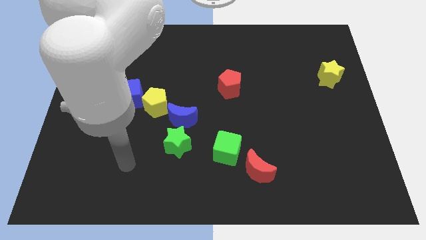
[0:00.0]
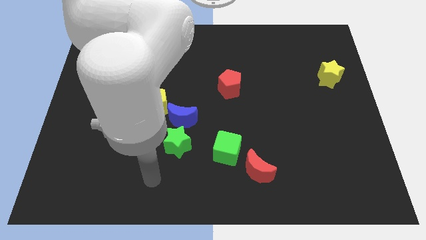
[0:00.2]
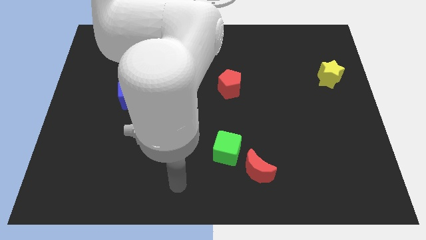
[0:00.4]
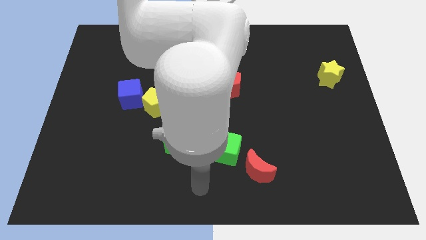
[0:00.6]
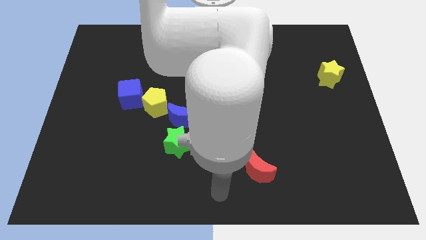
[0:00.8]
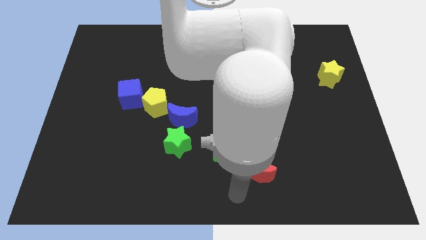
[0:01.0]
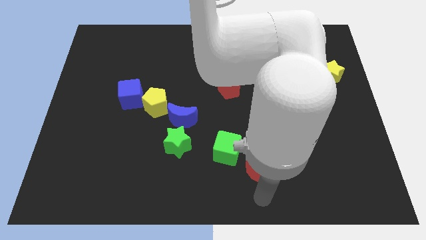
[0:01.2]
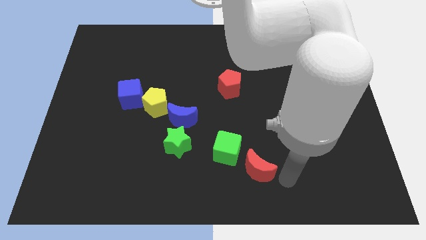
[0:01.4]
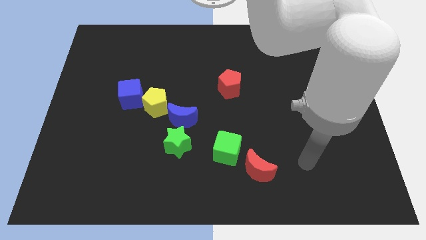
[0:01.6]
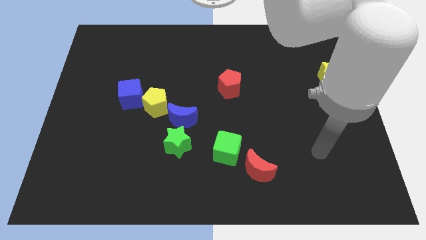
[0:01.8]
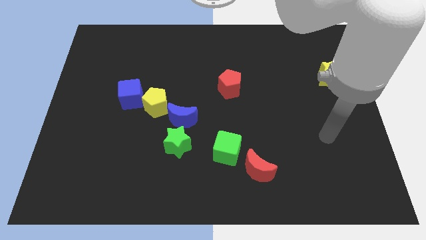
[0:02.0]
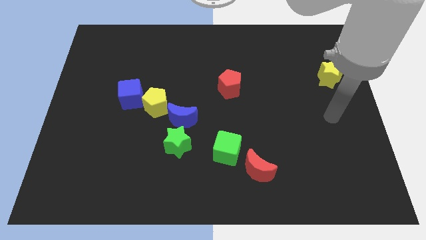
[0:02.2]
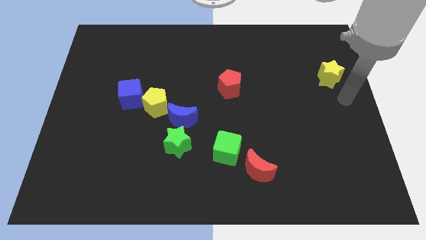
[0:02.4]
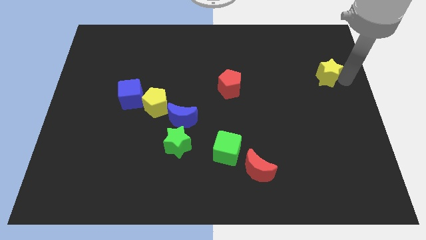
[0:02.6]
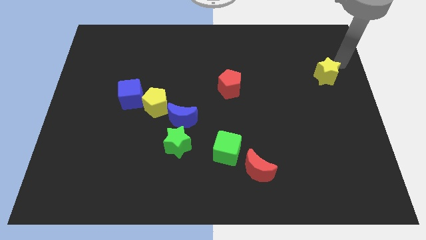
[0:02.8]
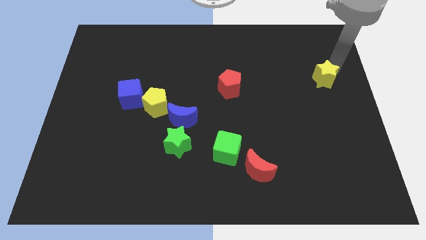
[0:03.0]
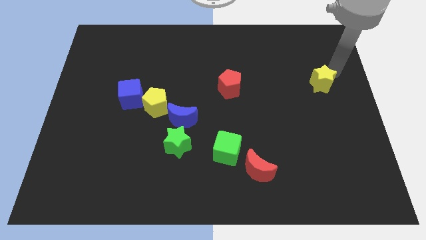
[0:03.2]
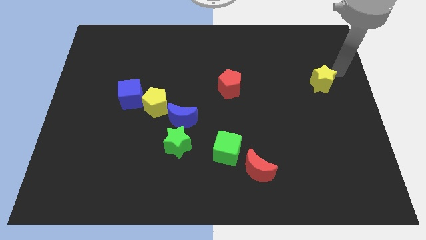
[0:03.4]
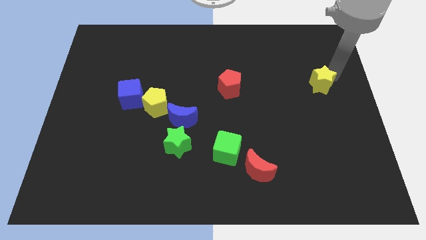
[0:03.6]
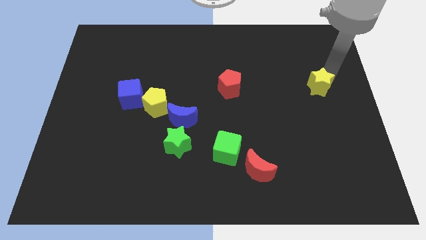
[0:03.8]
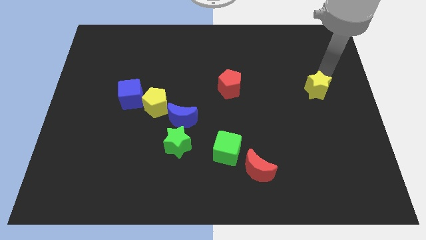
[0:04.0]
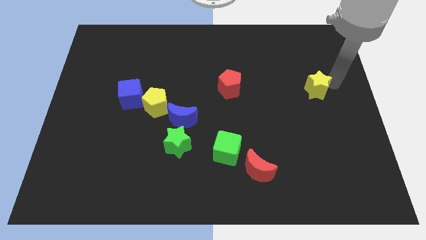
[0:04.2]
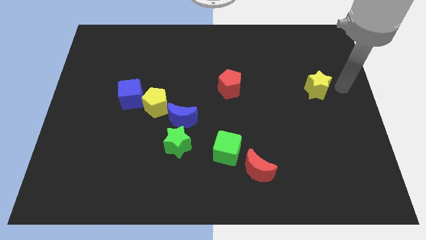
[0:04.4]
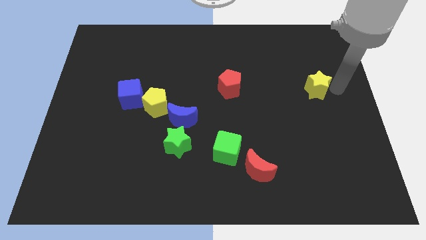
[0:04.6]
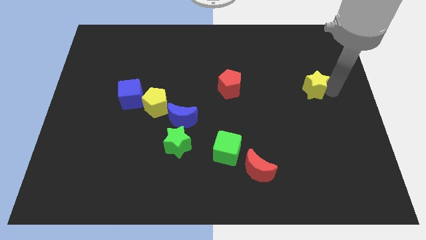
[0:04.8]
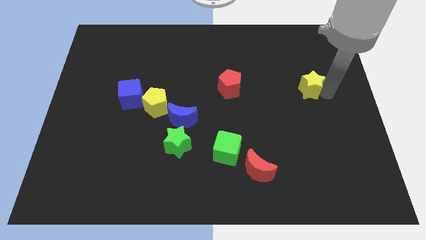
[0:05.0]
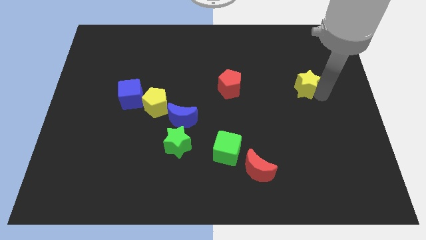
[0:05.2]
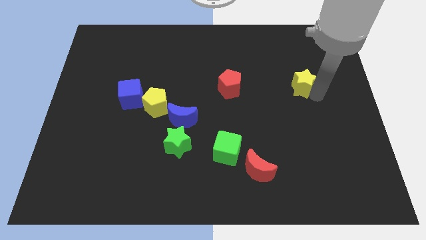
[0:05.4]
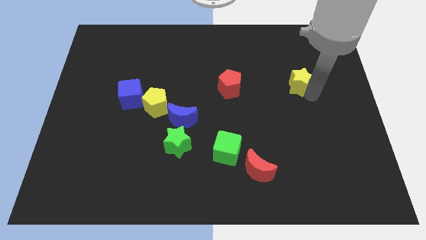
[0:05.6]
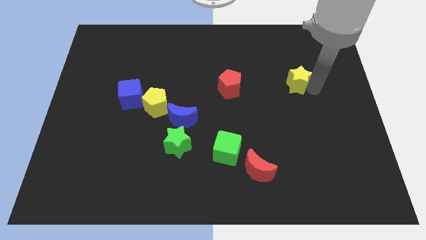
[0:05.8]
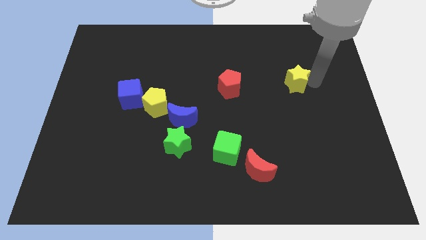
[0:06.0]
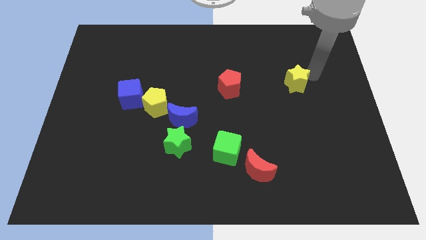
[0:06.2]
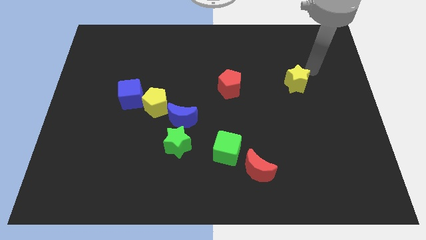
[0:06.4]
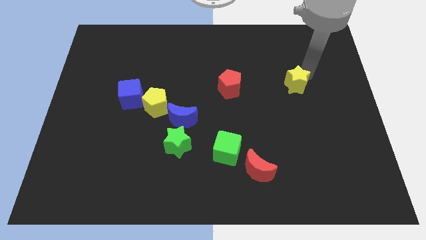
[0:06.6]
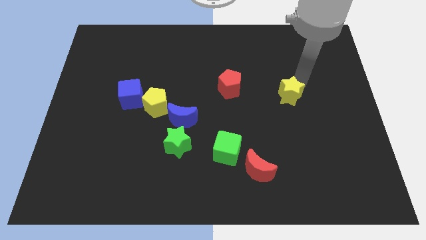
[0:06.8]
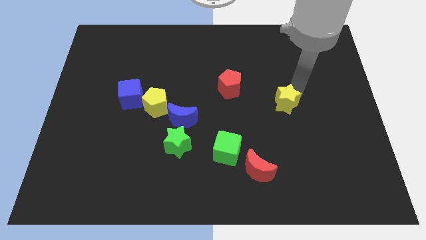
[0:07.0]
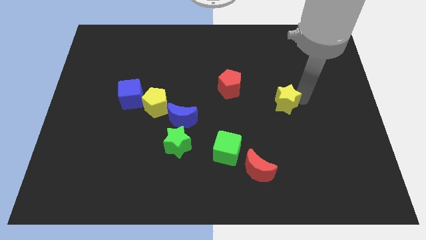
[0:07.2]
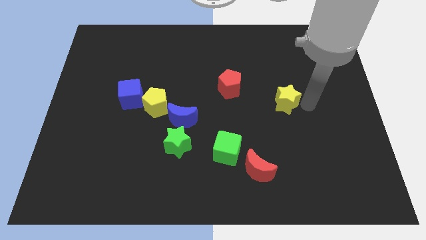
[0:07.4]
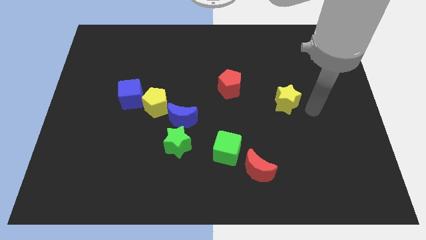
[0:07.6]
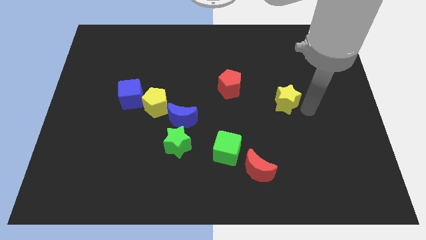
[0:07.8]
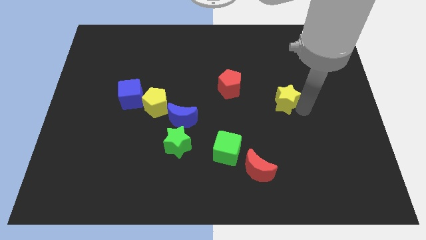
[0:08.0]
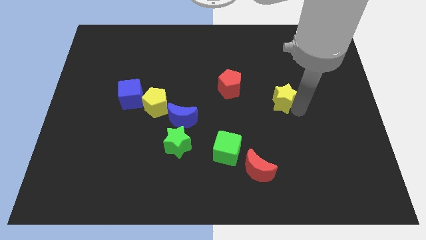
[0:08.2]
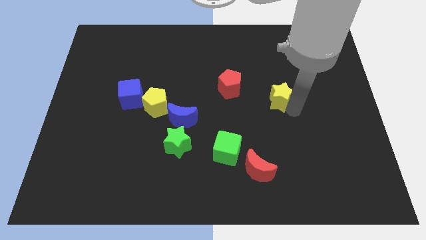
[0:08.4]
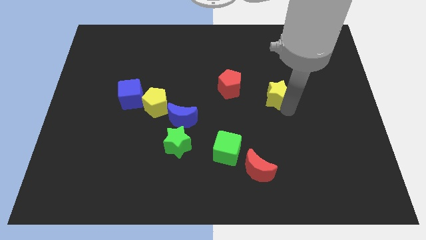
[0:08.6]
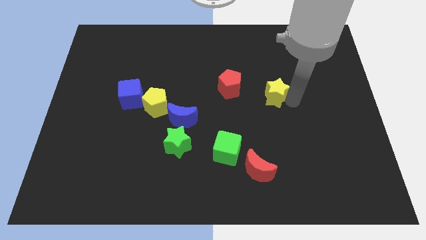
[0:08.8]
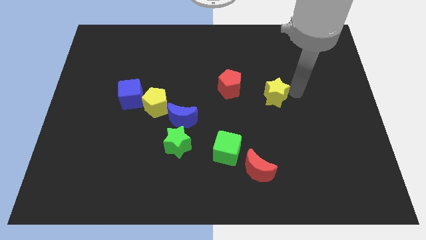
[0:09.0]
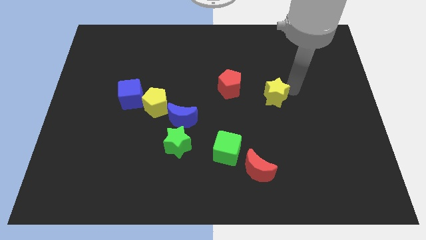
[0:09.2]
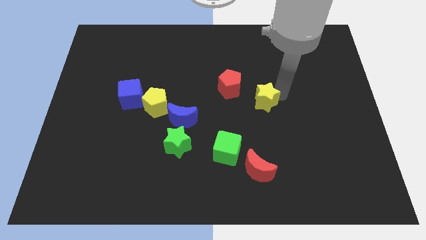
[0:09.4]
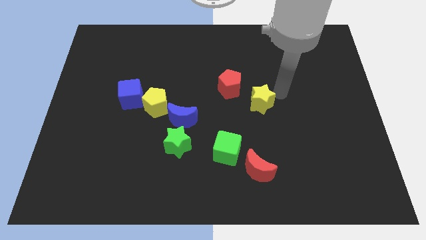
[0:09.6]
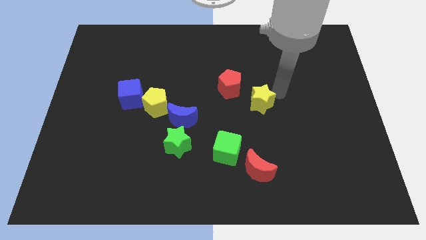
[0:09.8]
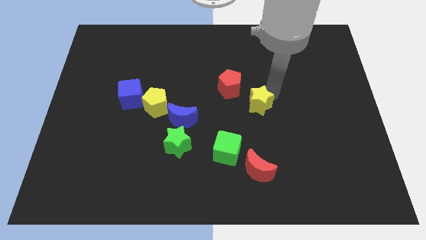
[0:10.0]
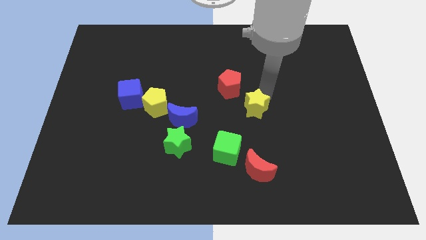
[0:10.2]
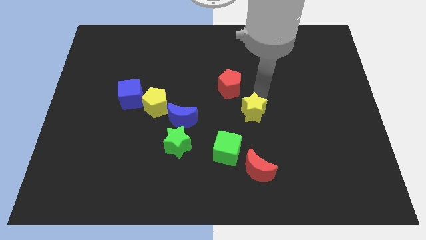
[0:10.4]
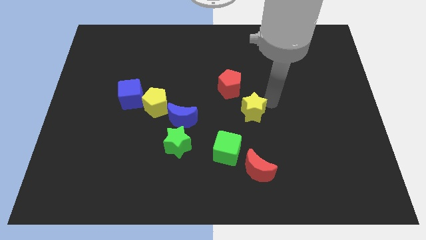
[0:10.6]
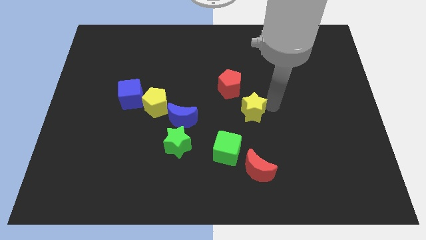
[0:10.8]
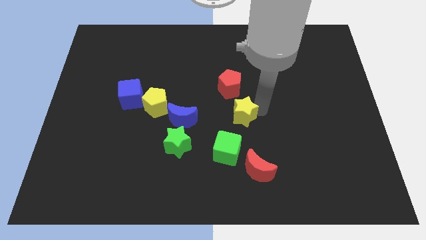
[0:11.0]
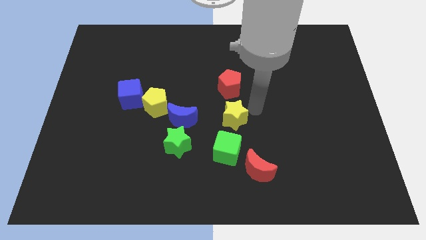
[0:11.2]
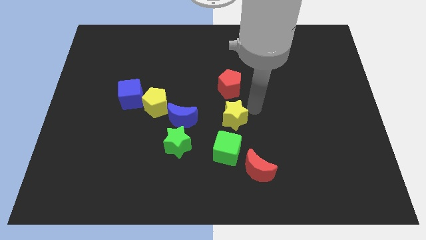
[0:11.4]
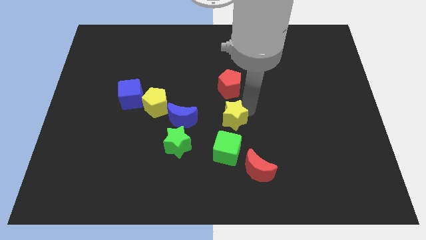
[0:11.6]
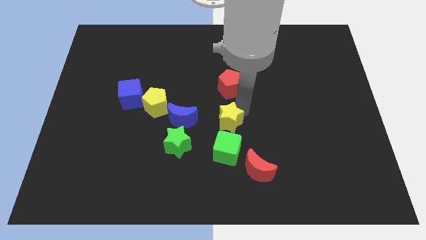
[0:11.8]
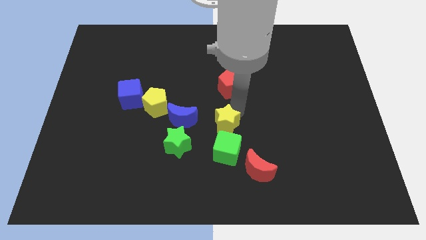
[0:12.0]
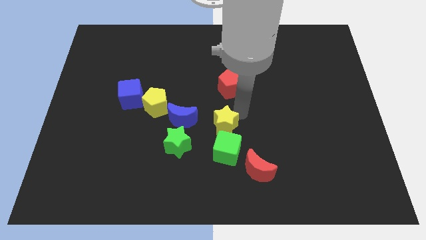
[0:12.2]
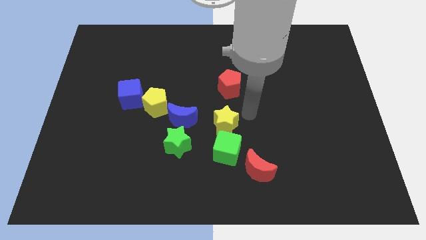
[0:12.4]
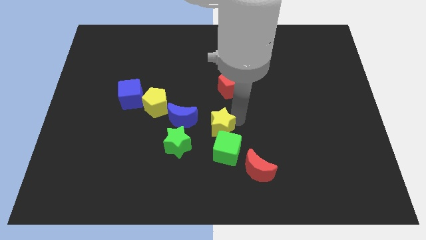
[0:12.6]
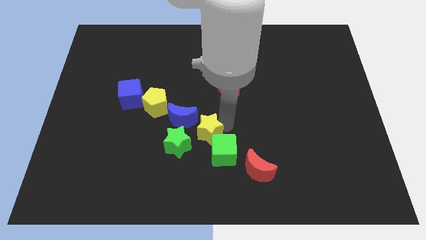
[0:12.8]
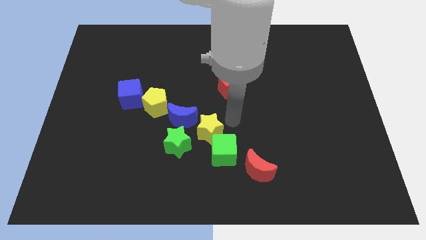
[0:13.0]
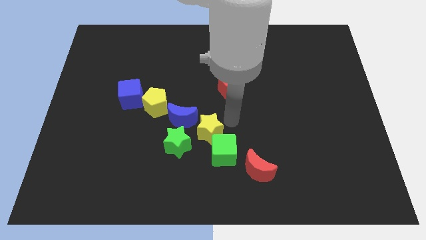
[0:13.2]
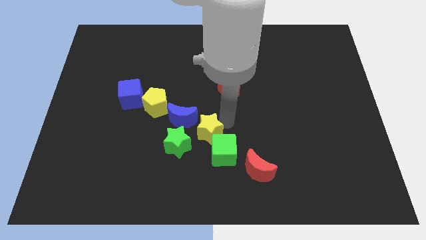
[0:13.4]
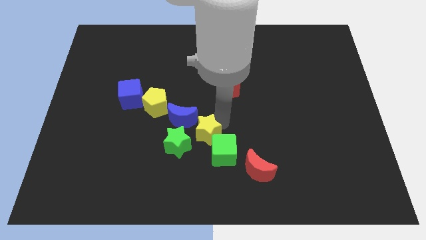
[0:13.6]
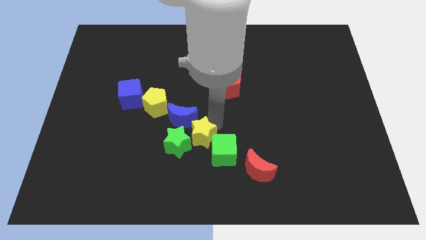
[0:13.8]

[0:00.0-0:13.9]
put the yellow star towards the green star
